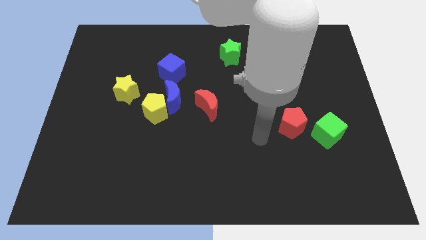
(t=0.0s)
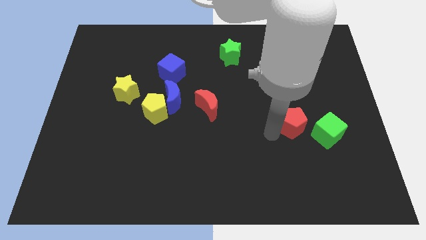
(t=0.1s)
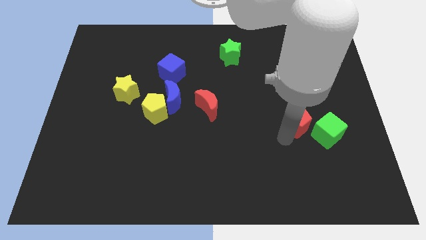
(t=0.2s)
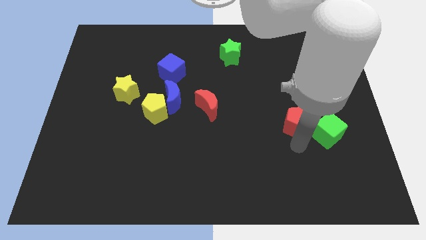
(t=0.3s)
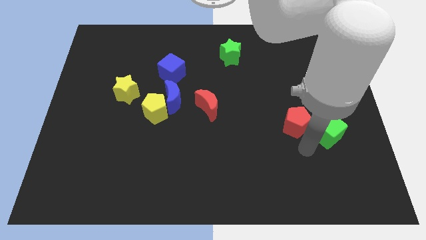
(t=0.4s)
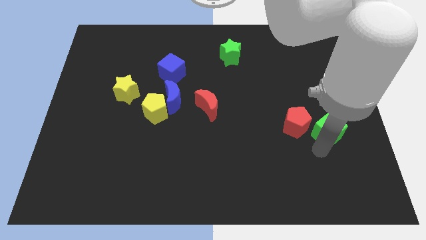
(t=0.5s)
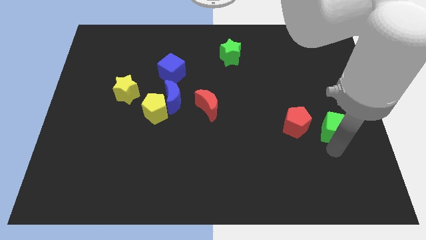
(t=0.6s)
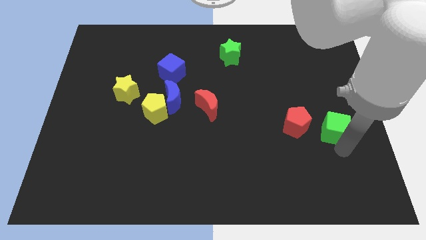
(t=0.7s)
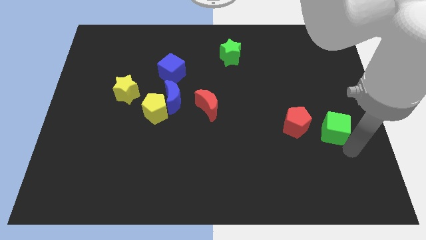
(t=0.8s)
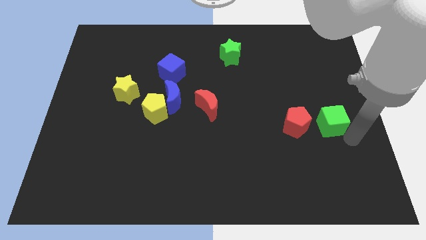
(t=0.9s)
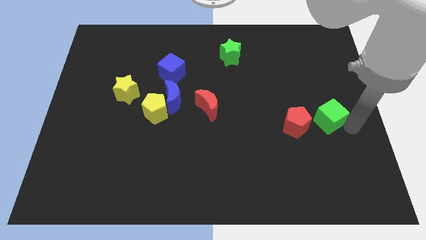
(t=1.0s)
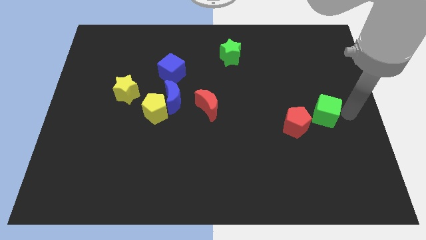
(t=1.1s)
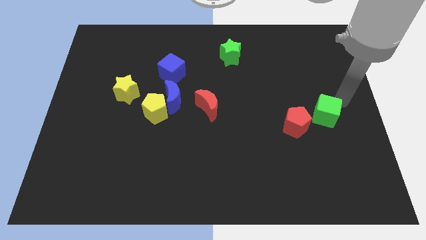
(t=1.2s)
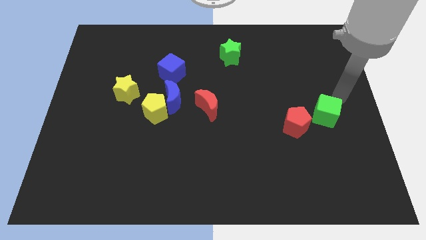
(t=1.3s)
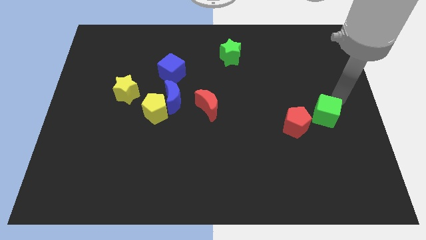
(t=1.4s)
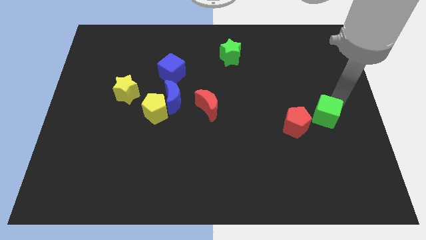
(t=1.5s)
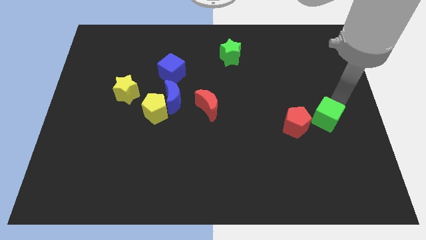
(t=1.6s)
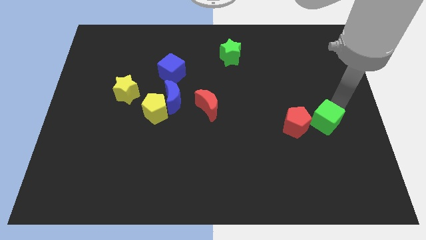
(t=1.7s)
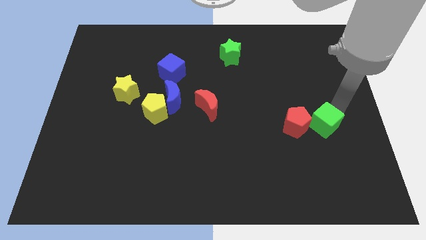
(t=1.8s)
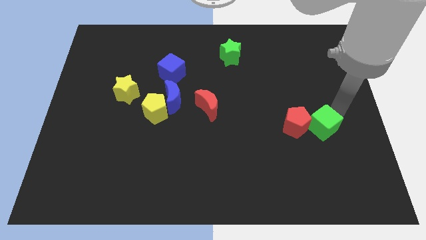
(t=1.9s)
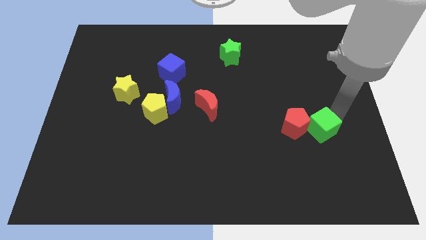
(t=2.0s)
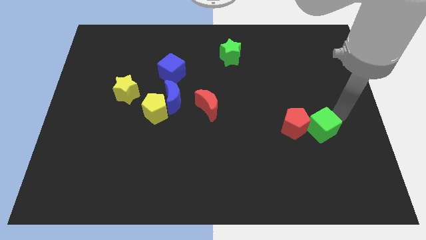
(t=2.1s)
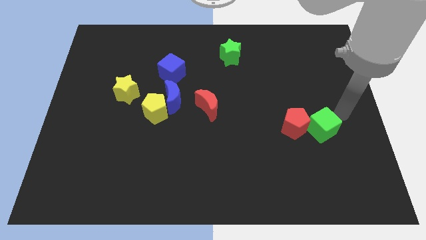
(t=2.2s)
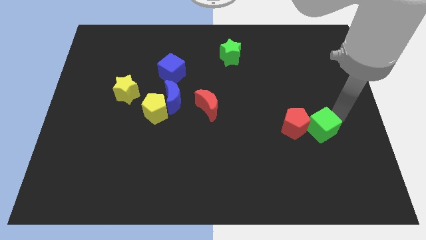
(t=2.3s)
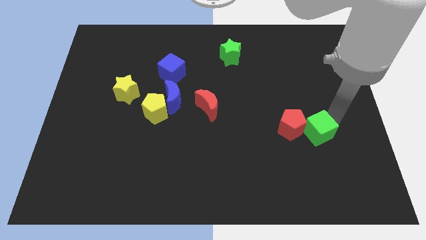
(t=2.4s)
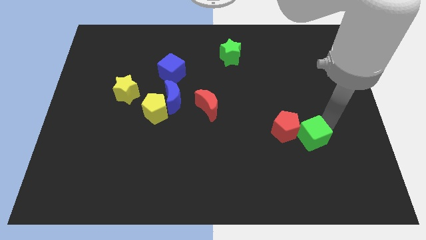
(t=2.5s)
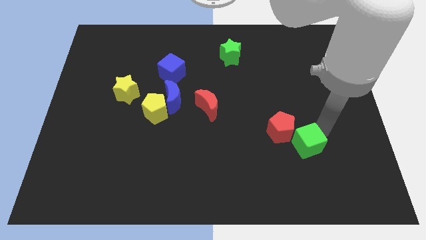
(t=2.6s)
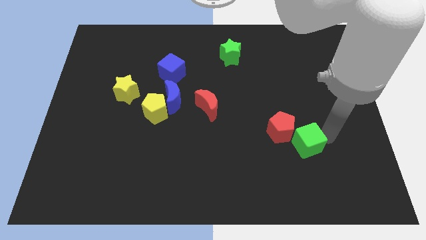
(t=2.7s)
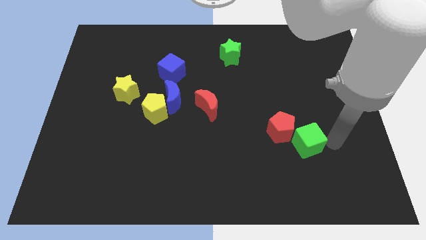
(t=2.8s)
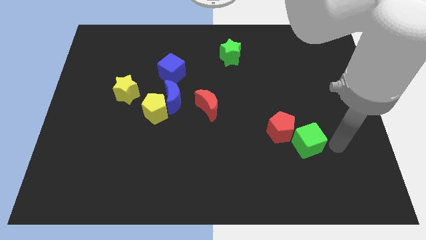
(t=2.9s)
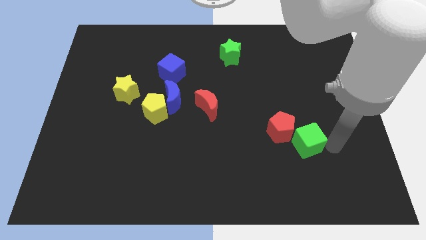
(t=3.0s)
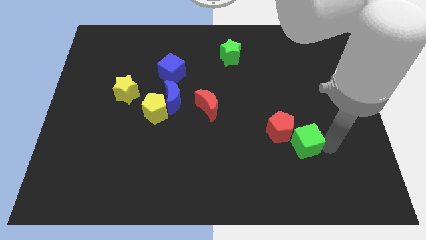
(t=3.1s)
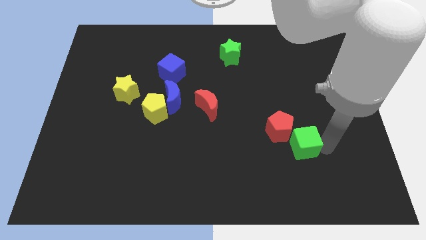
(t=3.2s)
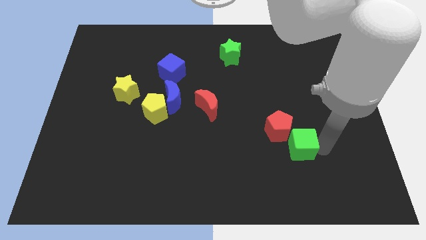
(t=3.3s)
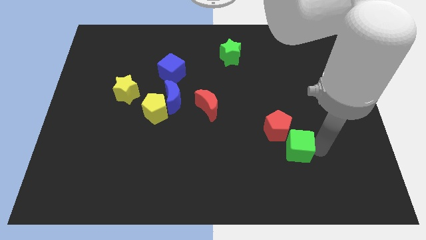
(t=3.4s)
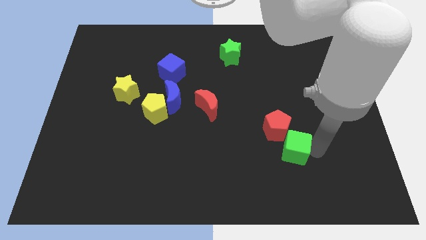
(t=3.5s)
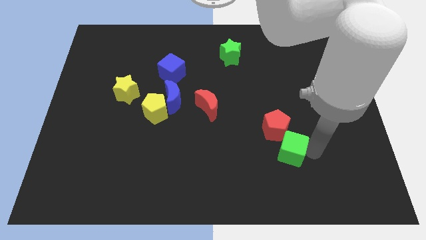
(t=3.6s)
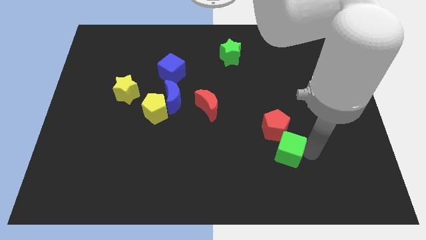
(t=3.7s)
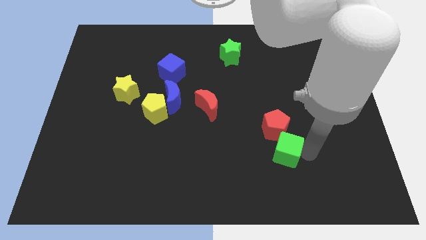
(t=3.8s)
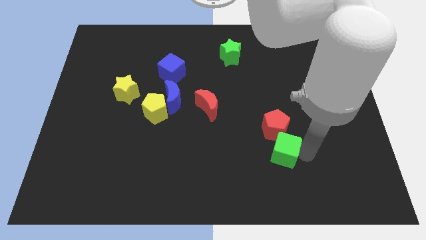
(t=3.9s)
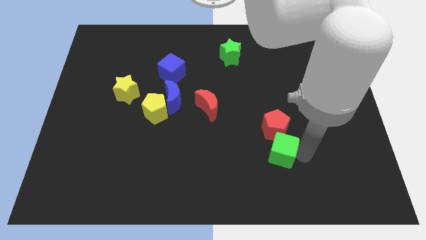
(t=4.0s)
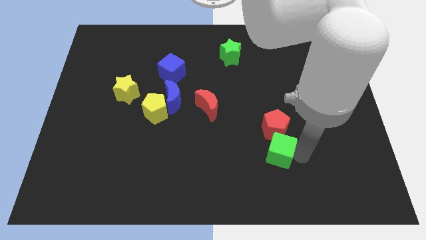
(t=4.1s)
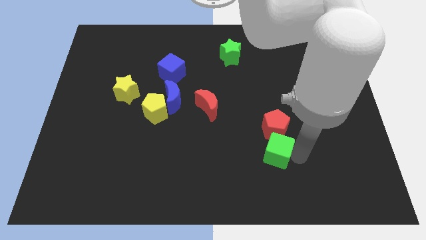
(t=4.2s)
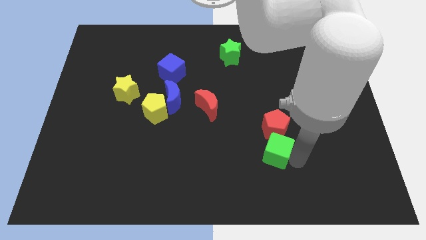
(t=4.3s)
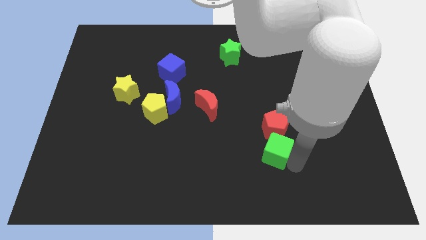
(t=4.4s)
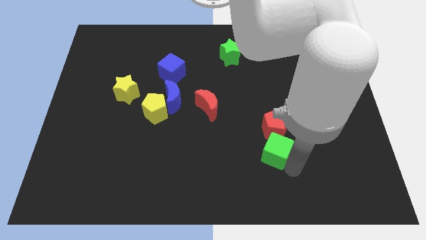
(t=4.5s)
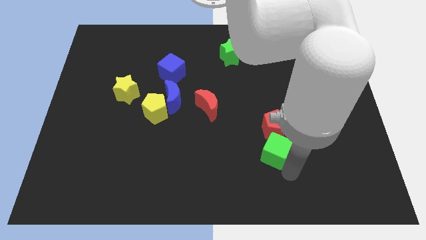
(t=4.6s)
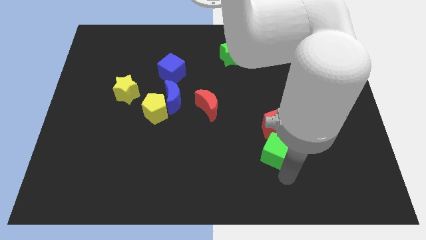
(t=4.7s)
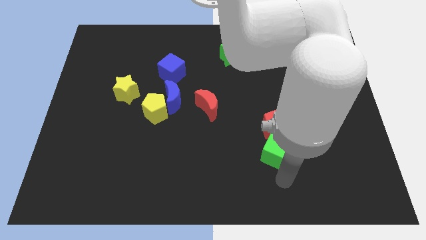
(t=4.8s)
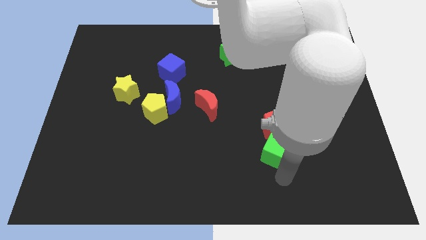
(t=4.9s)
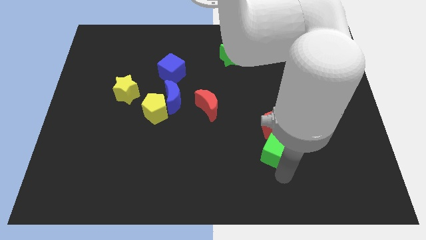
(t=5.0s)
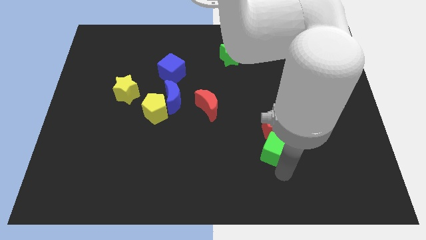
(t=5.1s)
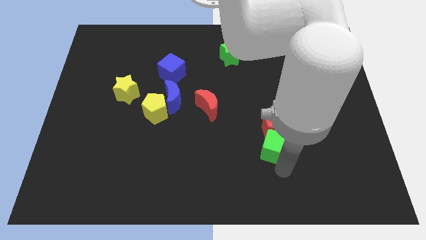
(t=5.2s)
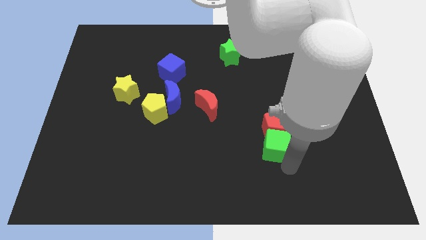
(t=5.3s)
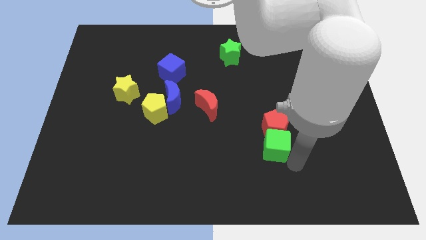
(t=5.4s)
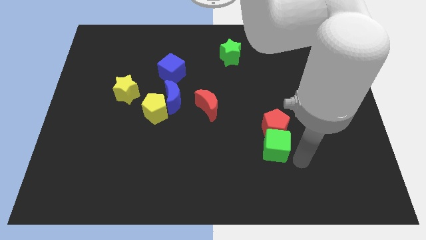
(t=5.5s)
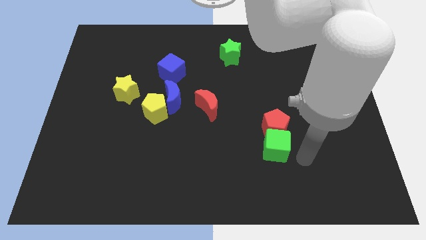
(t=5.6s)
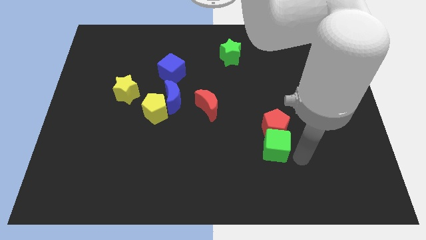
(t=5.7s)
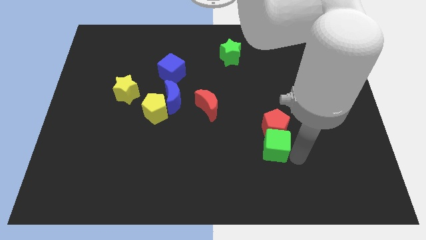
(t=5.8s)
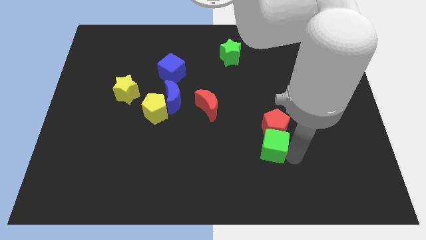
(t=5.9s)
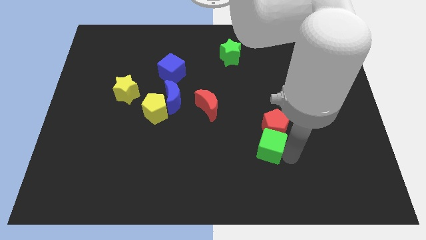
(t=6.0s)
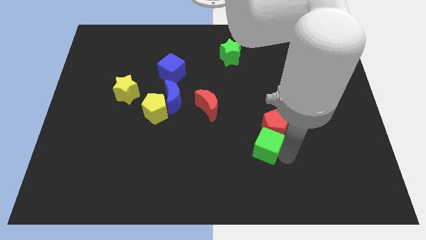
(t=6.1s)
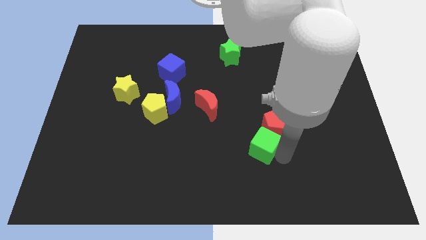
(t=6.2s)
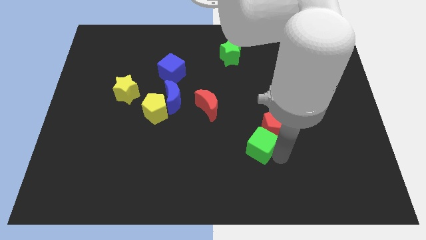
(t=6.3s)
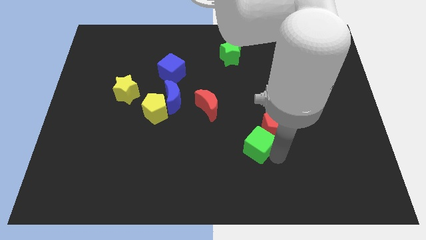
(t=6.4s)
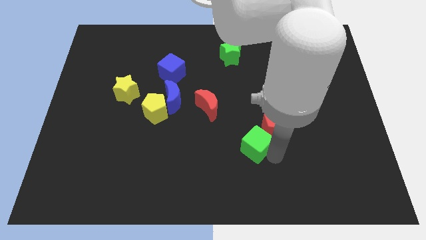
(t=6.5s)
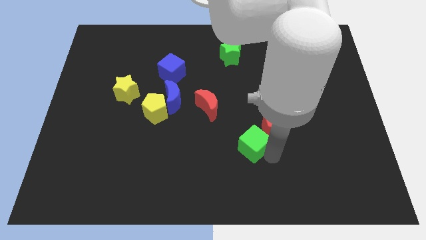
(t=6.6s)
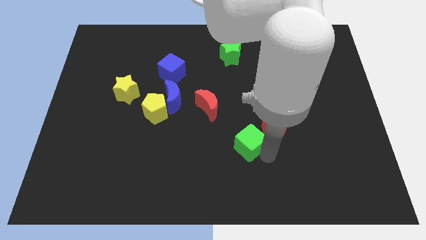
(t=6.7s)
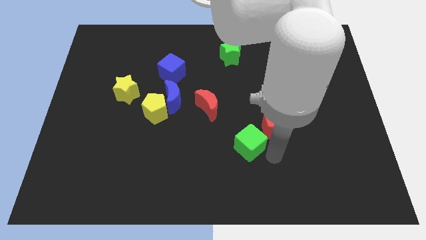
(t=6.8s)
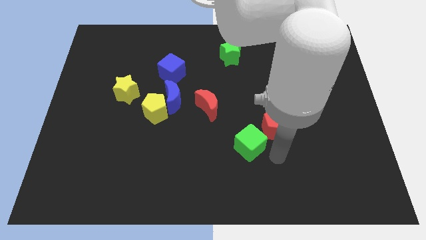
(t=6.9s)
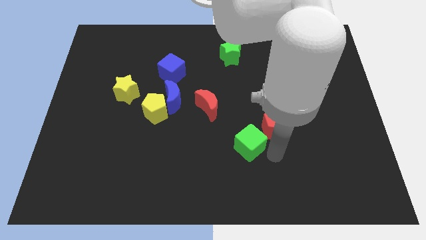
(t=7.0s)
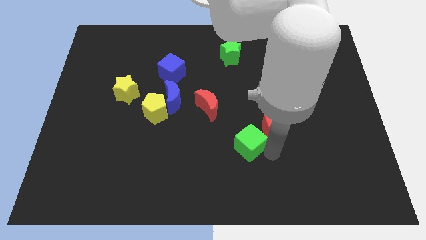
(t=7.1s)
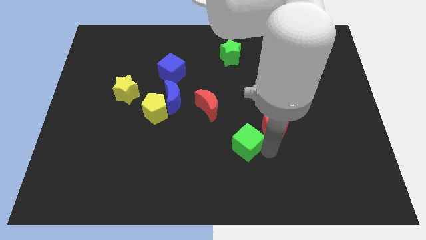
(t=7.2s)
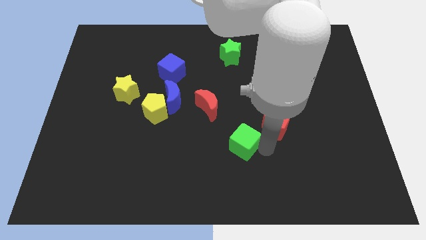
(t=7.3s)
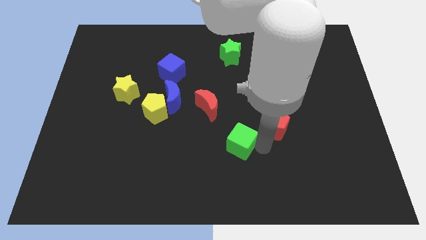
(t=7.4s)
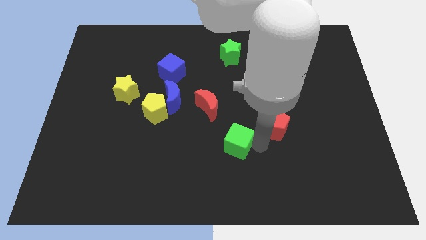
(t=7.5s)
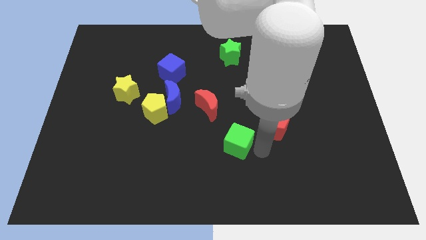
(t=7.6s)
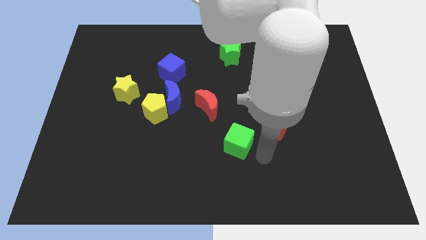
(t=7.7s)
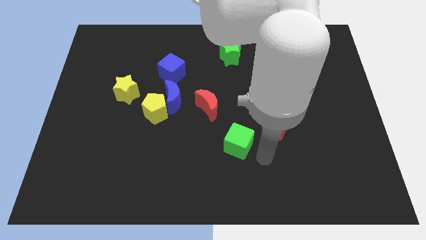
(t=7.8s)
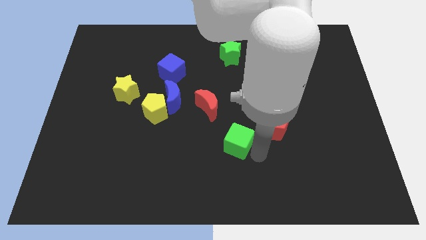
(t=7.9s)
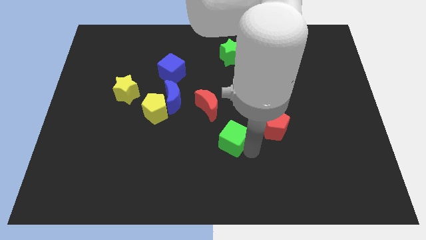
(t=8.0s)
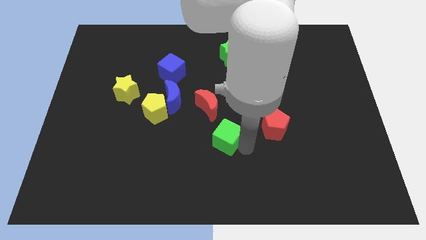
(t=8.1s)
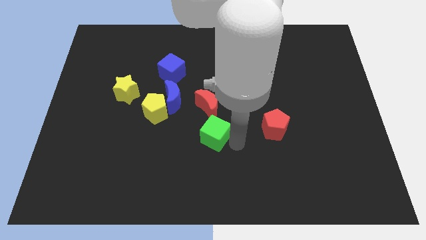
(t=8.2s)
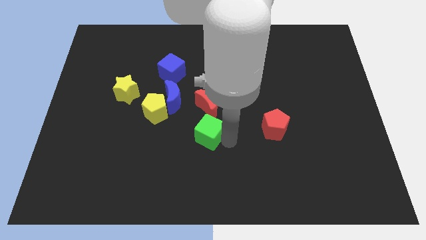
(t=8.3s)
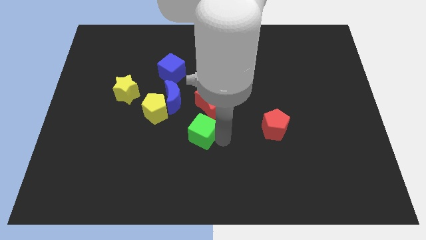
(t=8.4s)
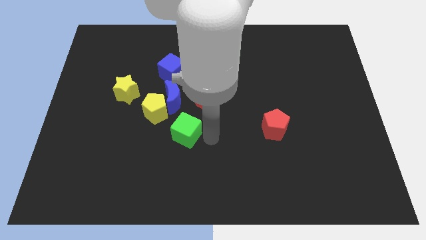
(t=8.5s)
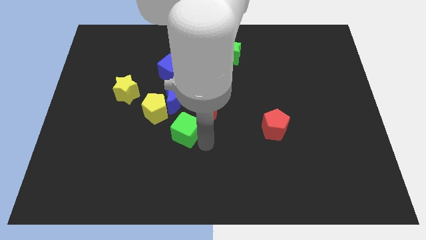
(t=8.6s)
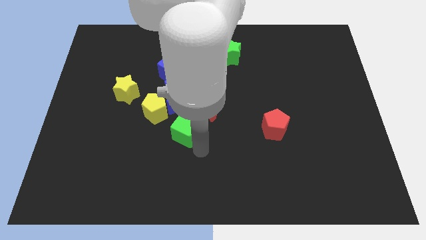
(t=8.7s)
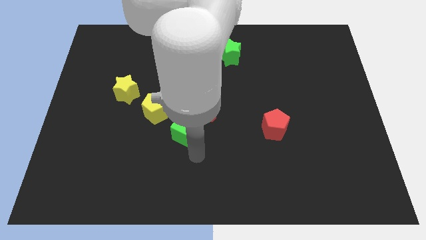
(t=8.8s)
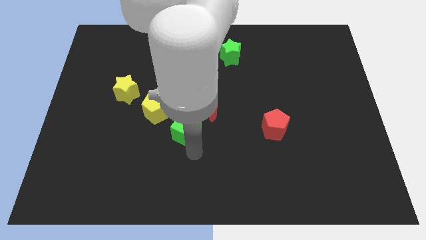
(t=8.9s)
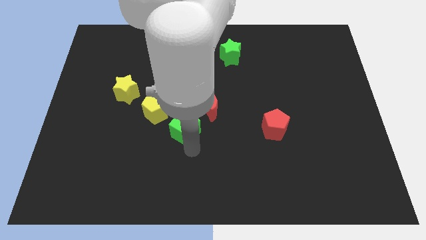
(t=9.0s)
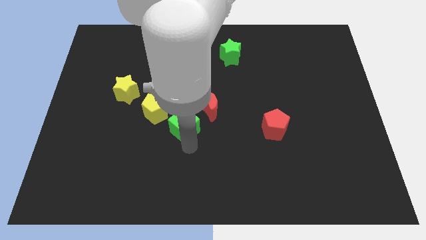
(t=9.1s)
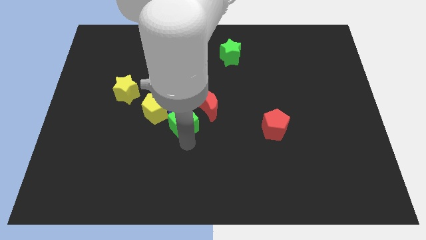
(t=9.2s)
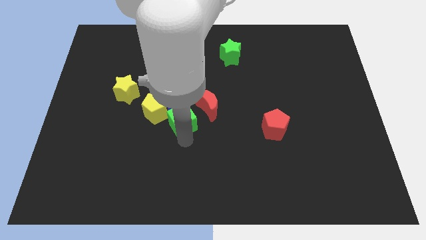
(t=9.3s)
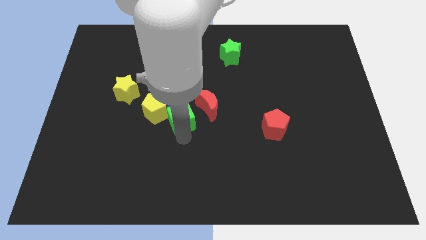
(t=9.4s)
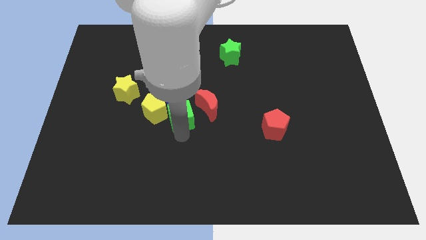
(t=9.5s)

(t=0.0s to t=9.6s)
slide the green cube towards the blue moon
